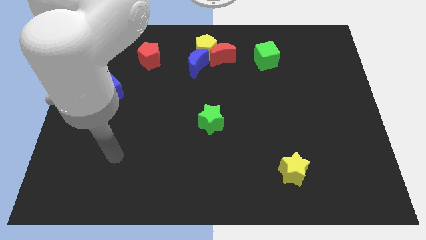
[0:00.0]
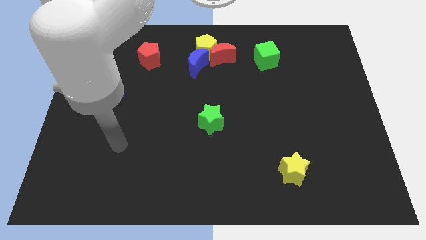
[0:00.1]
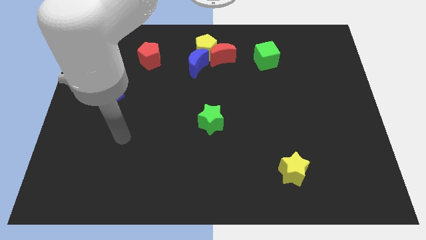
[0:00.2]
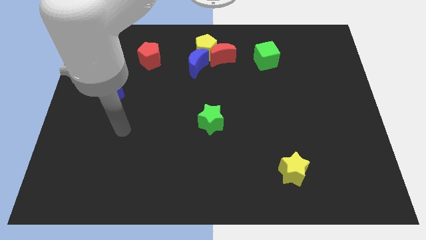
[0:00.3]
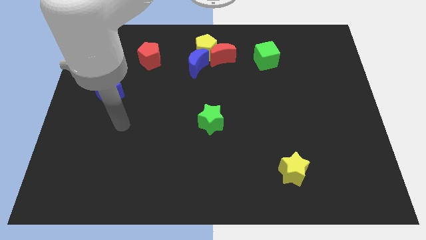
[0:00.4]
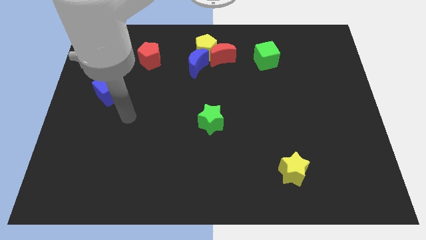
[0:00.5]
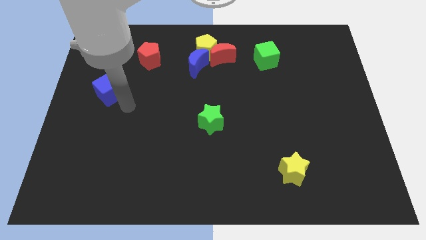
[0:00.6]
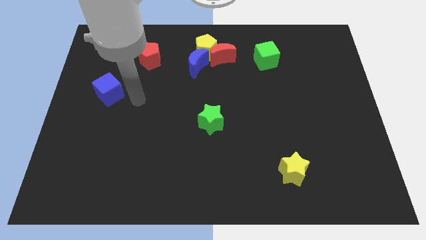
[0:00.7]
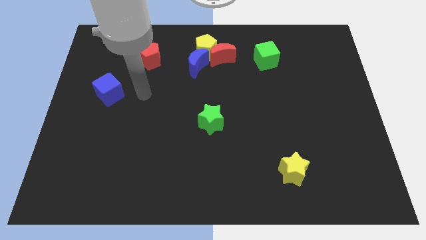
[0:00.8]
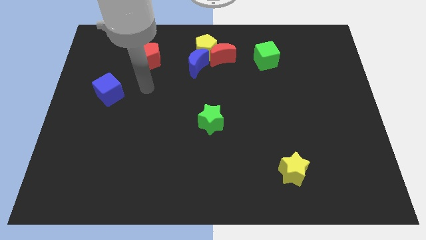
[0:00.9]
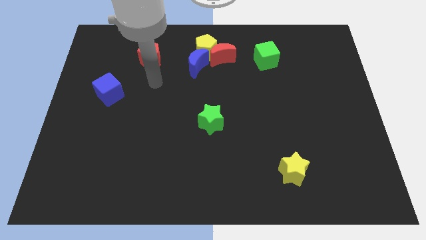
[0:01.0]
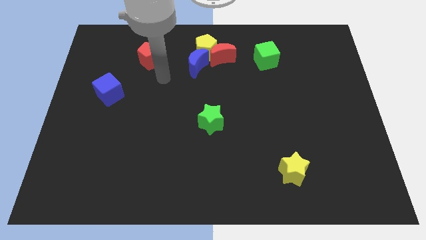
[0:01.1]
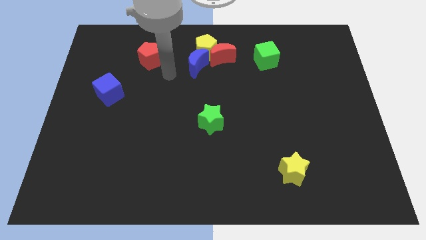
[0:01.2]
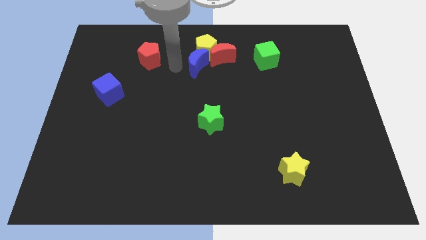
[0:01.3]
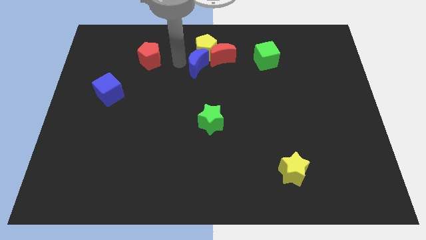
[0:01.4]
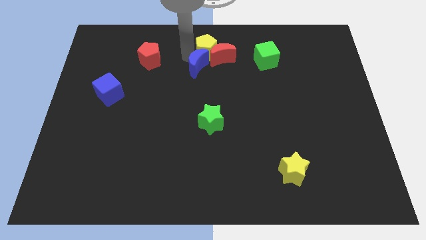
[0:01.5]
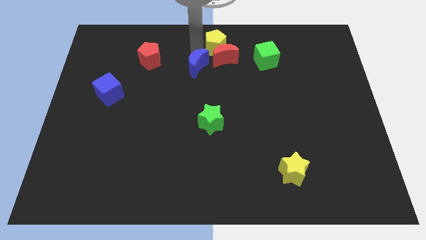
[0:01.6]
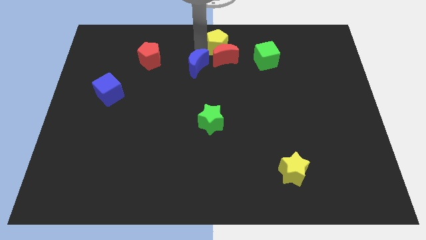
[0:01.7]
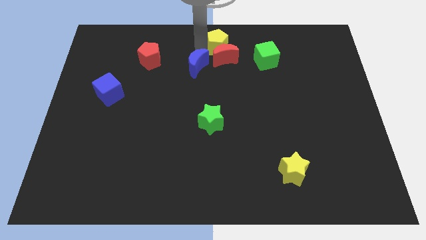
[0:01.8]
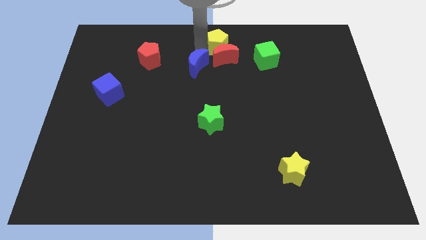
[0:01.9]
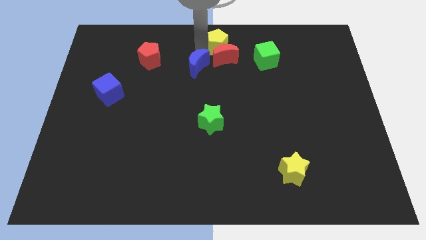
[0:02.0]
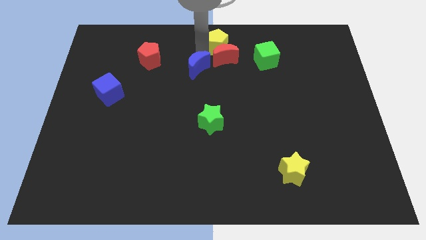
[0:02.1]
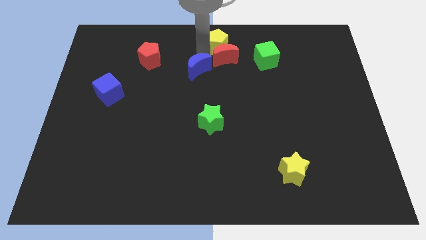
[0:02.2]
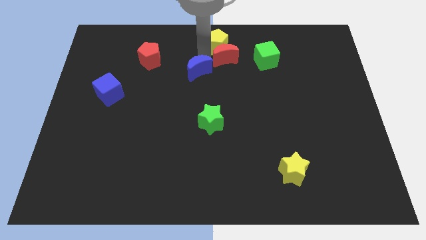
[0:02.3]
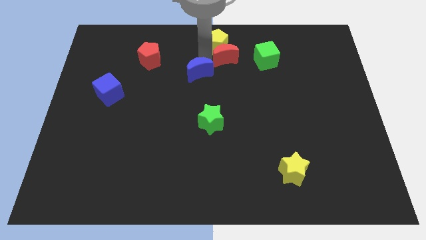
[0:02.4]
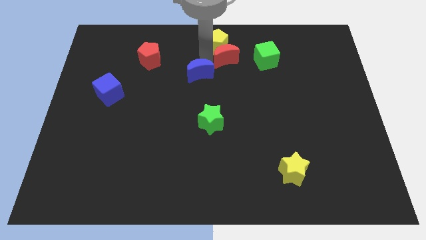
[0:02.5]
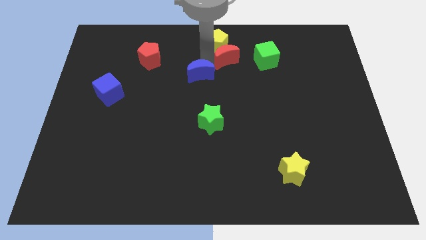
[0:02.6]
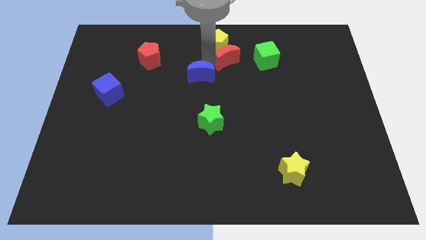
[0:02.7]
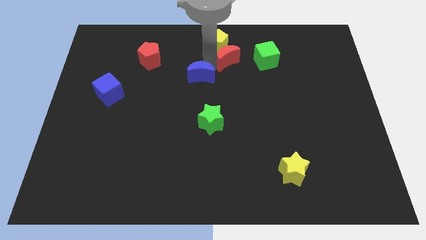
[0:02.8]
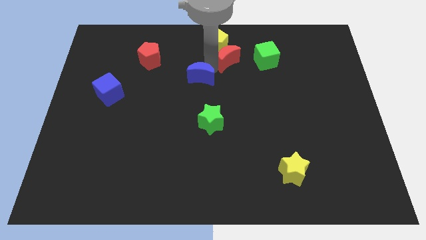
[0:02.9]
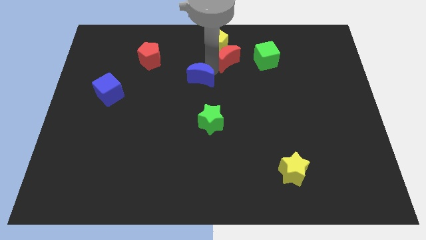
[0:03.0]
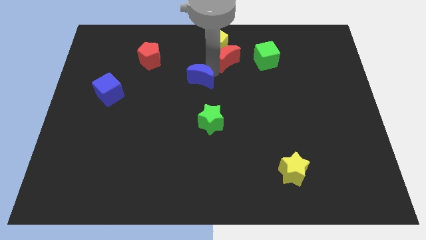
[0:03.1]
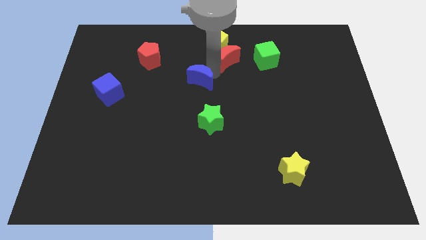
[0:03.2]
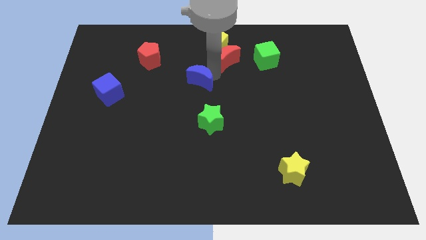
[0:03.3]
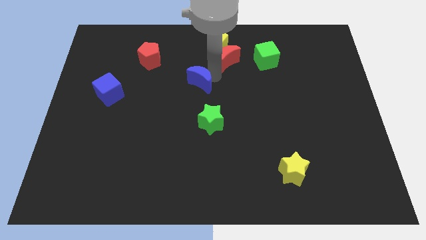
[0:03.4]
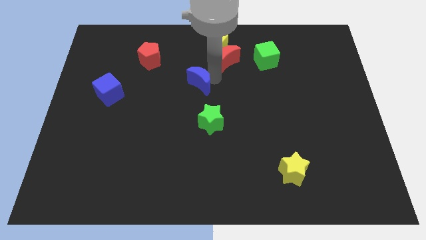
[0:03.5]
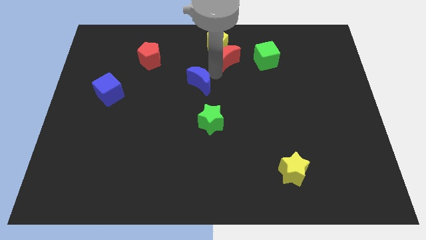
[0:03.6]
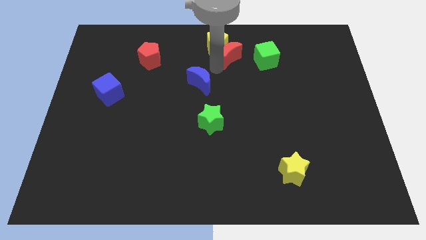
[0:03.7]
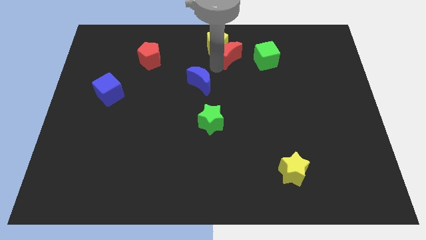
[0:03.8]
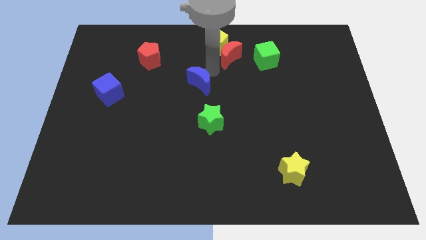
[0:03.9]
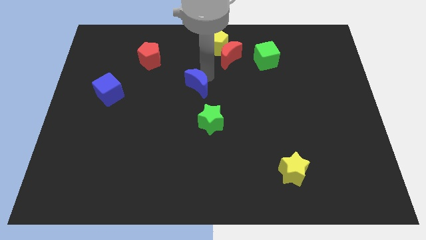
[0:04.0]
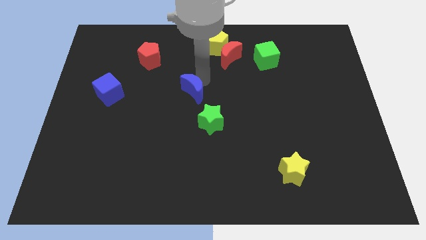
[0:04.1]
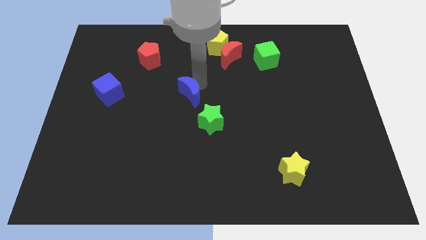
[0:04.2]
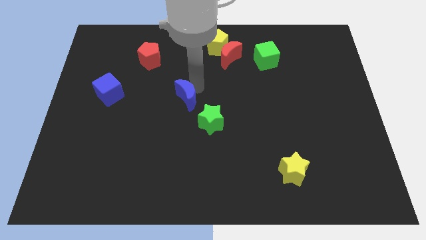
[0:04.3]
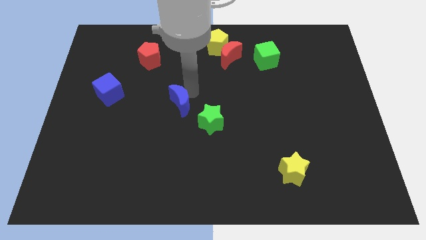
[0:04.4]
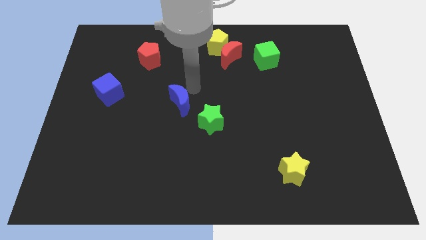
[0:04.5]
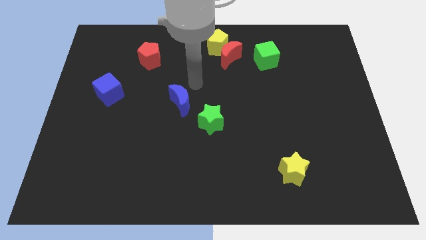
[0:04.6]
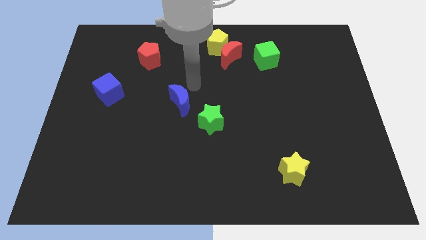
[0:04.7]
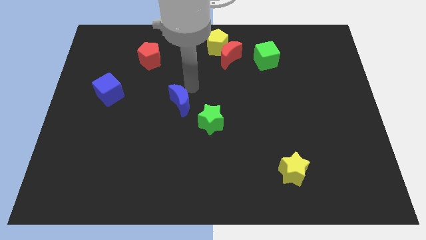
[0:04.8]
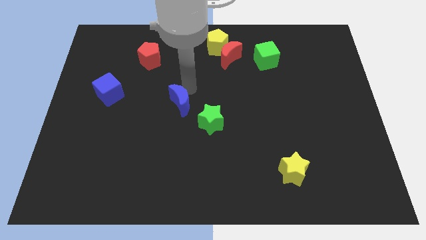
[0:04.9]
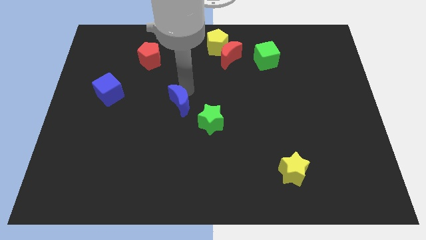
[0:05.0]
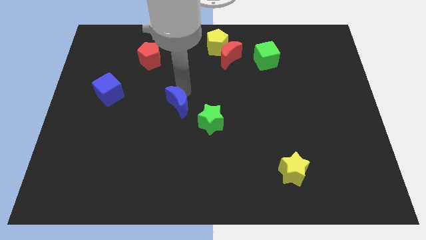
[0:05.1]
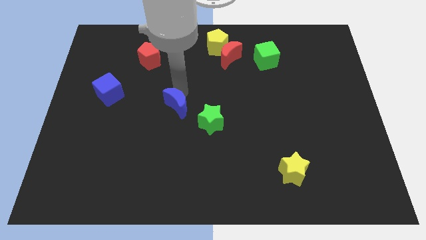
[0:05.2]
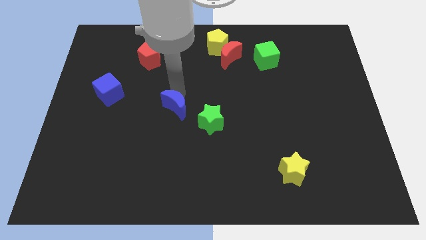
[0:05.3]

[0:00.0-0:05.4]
put the blue moon left of the green star

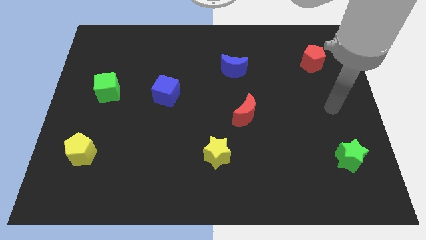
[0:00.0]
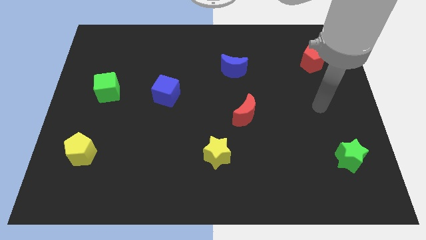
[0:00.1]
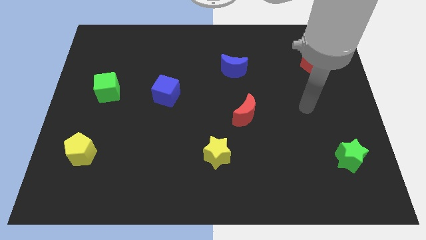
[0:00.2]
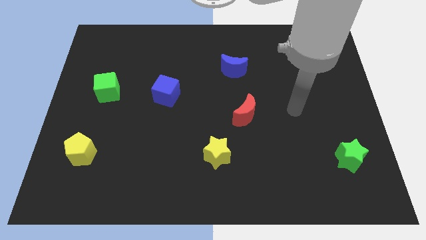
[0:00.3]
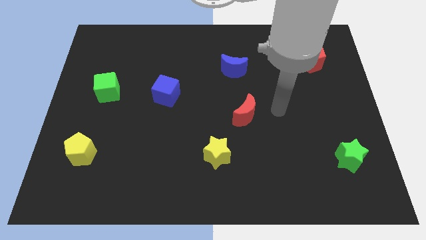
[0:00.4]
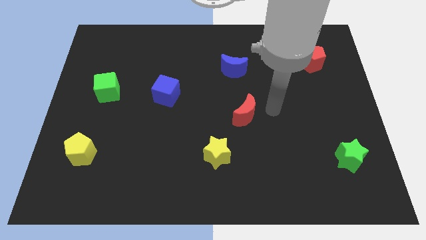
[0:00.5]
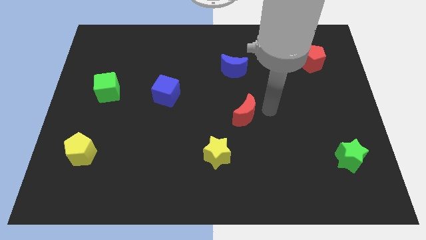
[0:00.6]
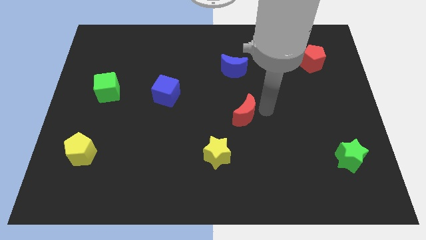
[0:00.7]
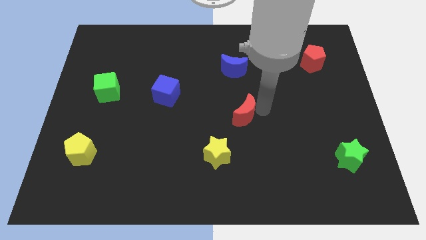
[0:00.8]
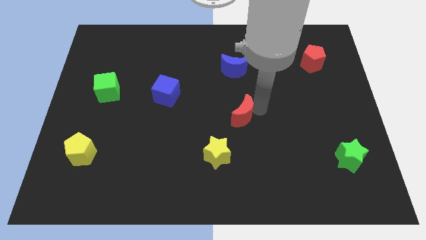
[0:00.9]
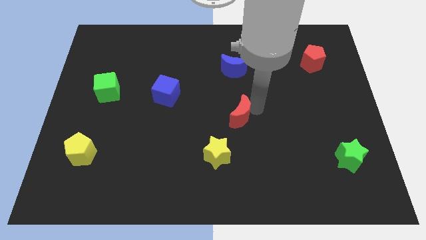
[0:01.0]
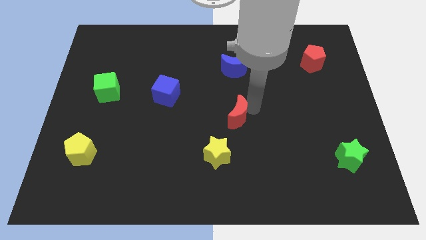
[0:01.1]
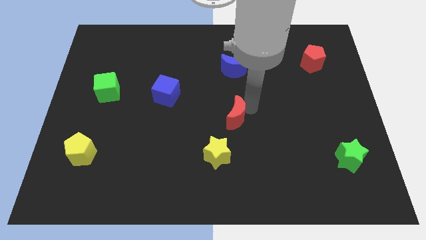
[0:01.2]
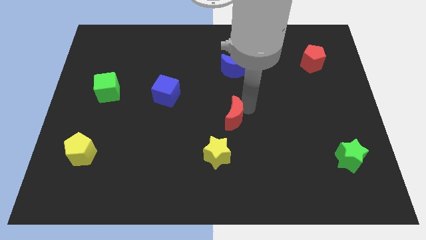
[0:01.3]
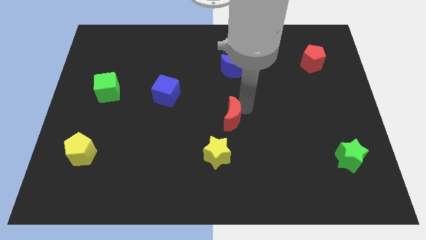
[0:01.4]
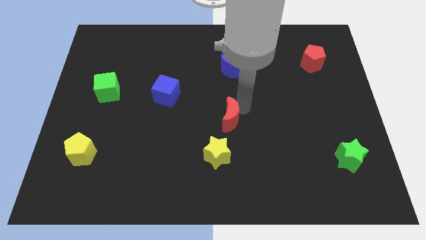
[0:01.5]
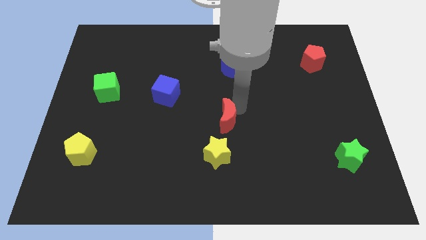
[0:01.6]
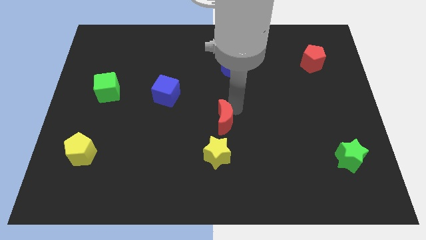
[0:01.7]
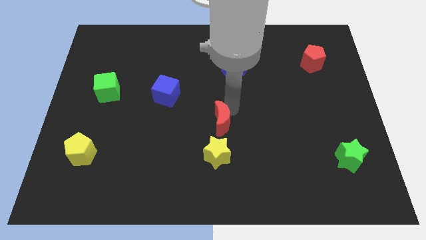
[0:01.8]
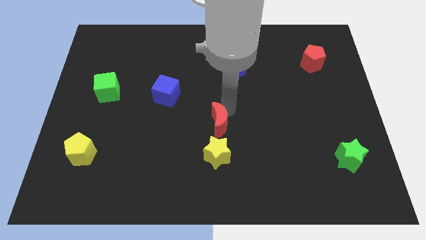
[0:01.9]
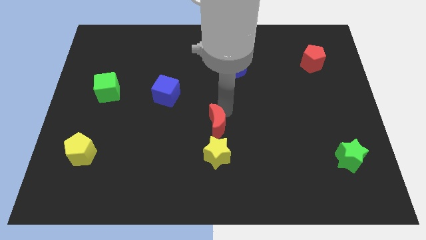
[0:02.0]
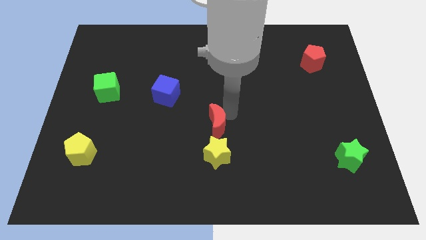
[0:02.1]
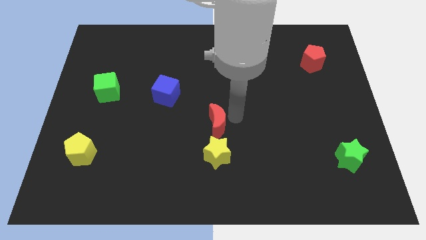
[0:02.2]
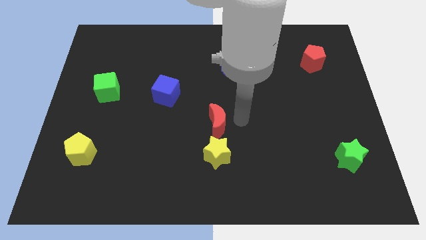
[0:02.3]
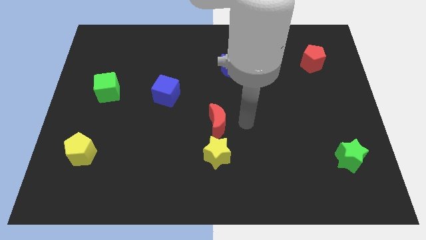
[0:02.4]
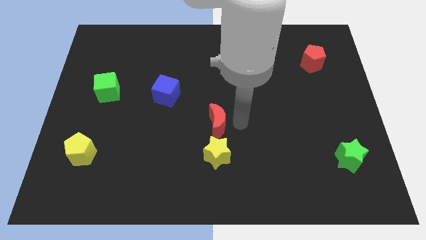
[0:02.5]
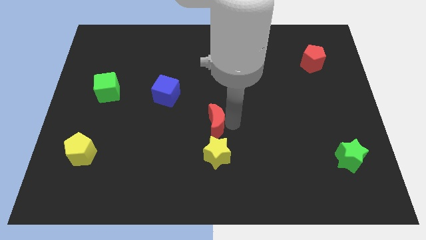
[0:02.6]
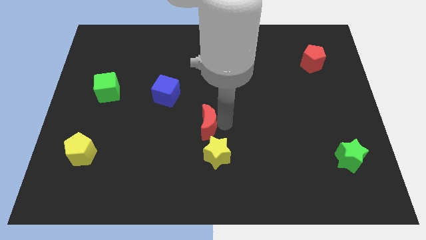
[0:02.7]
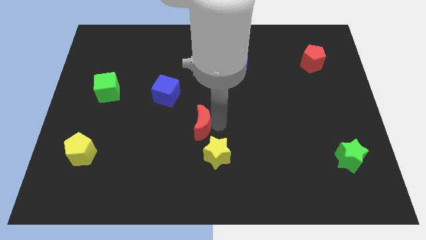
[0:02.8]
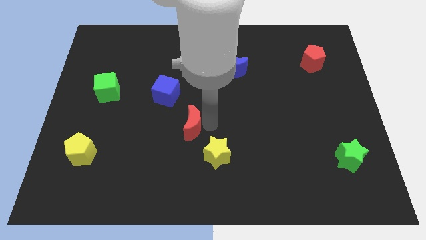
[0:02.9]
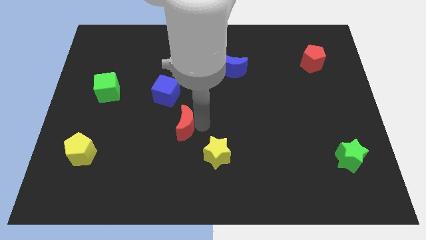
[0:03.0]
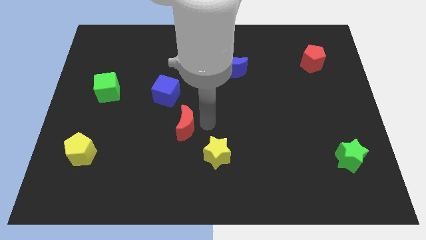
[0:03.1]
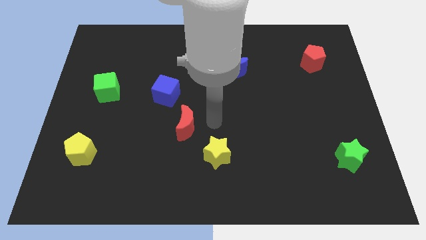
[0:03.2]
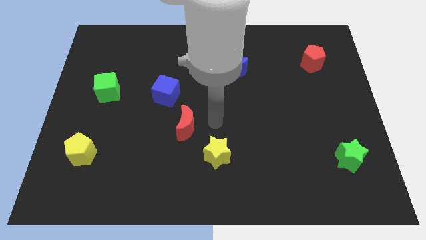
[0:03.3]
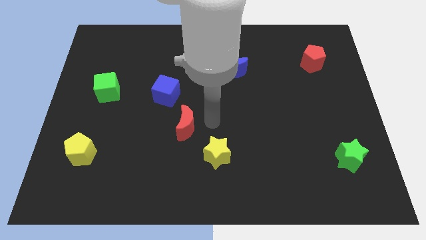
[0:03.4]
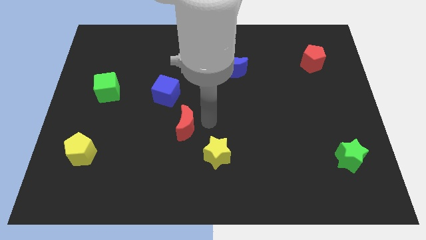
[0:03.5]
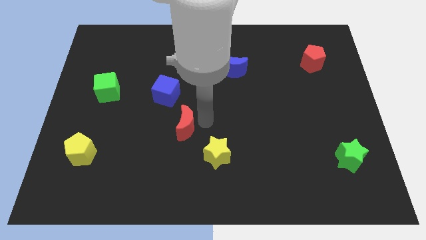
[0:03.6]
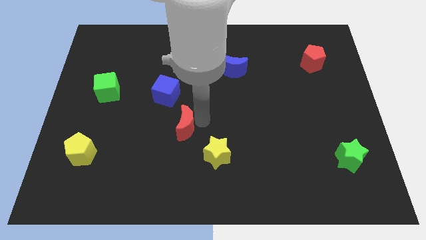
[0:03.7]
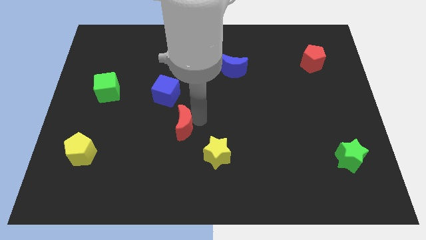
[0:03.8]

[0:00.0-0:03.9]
move the red moon to the bottom side of the blue cube
